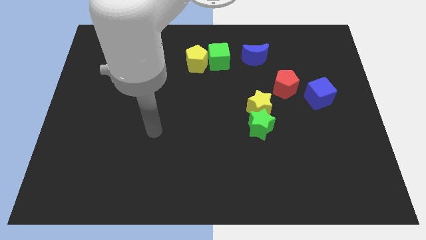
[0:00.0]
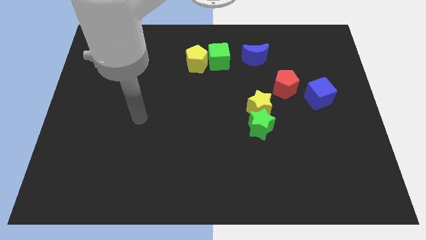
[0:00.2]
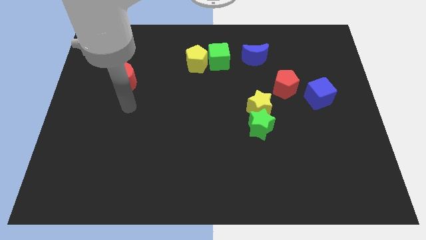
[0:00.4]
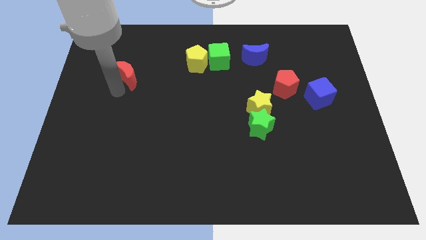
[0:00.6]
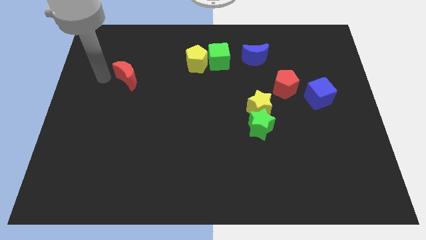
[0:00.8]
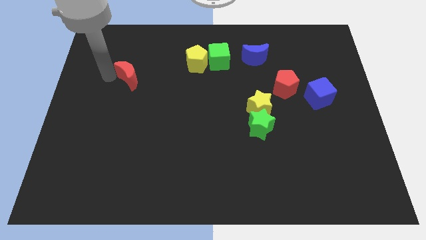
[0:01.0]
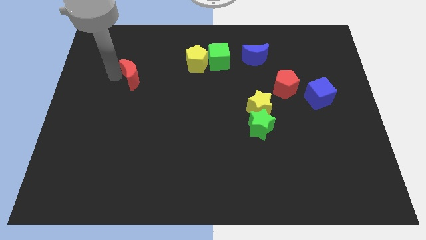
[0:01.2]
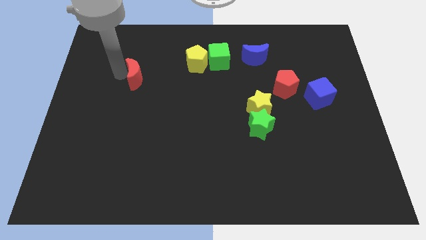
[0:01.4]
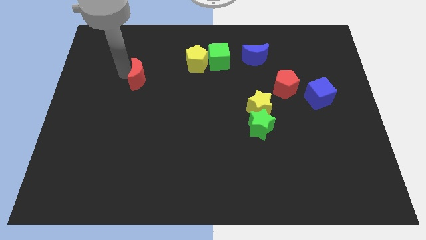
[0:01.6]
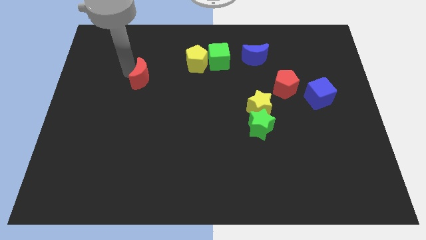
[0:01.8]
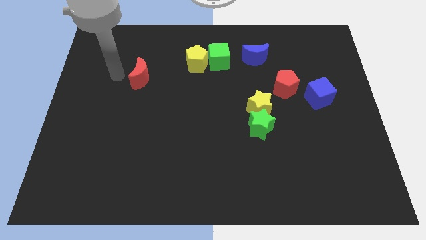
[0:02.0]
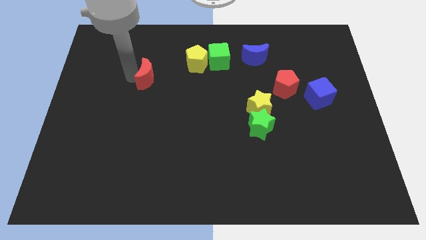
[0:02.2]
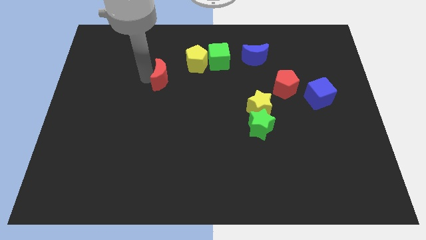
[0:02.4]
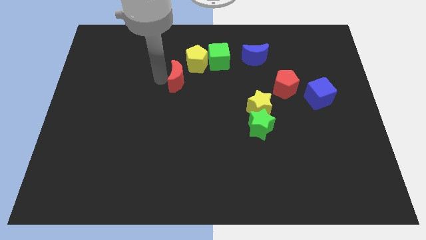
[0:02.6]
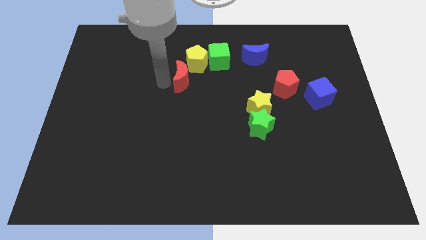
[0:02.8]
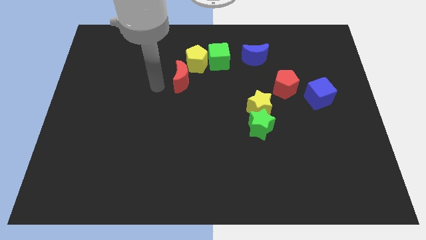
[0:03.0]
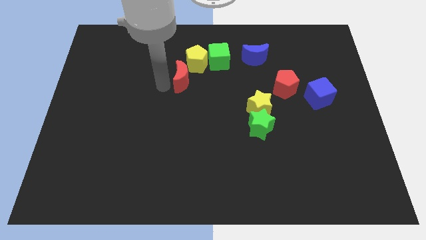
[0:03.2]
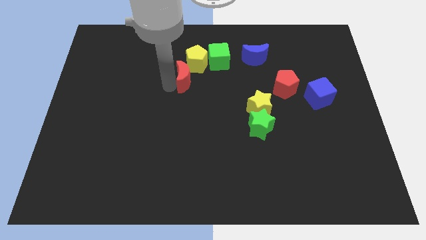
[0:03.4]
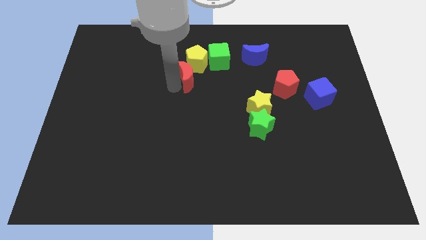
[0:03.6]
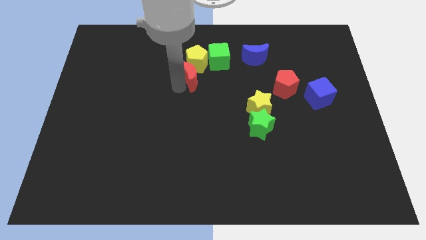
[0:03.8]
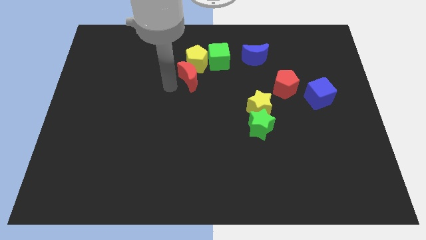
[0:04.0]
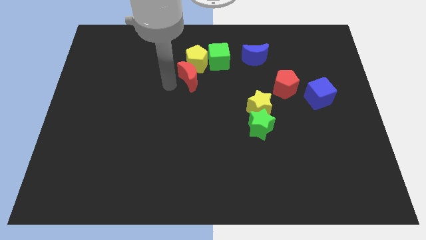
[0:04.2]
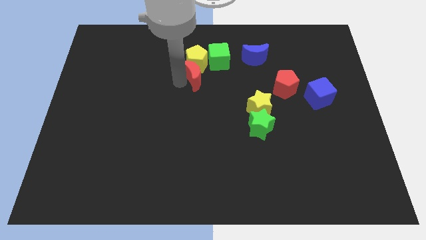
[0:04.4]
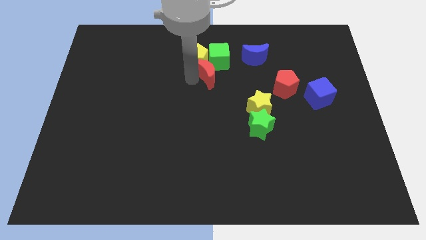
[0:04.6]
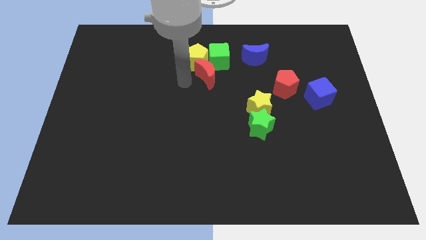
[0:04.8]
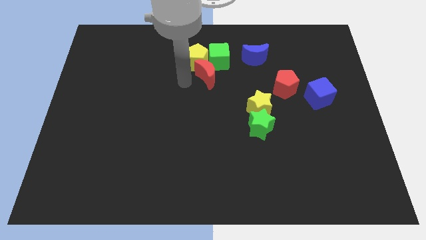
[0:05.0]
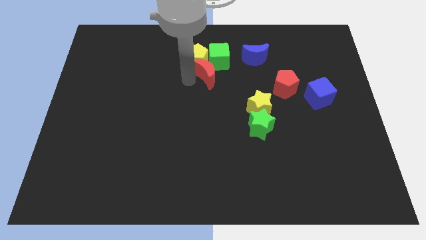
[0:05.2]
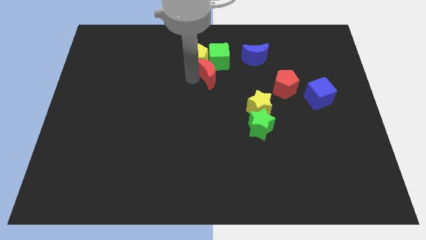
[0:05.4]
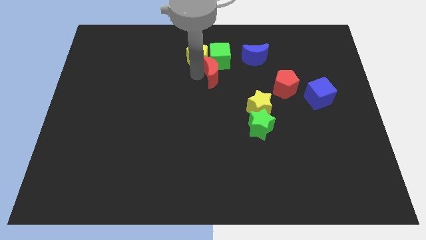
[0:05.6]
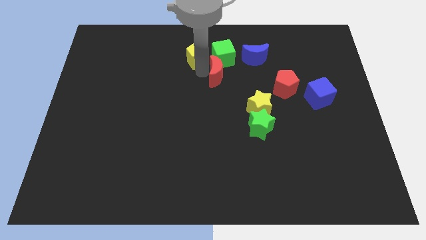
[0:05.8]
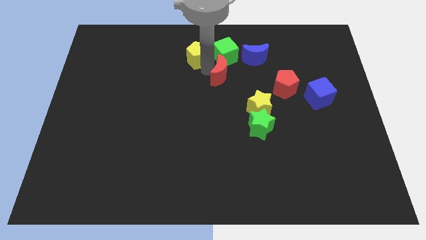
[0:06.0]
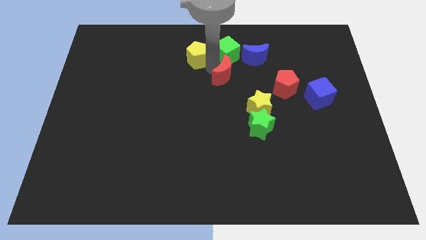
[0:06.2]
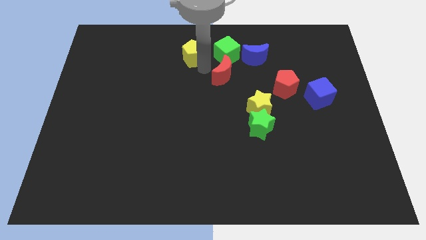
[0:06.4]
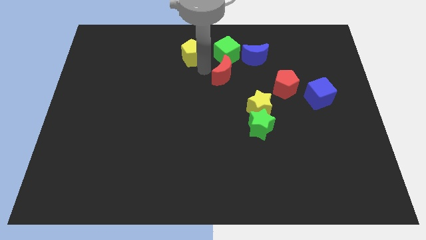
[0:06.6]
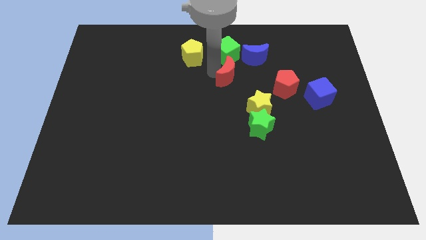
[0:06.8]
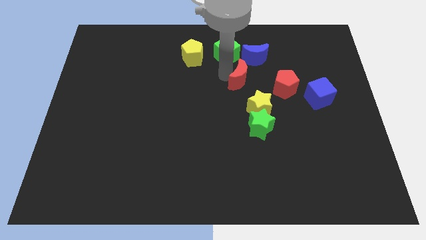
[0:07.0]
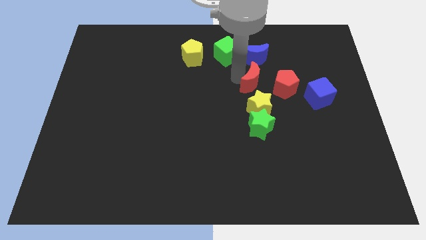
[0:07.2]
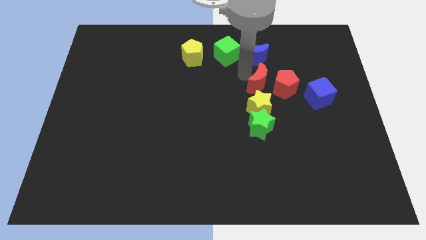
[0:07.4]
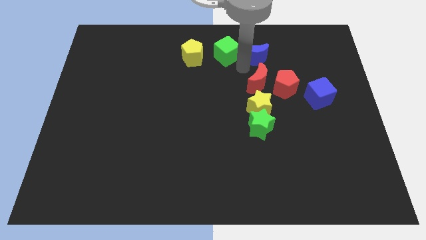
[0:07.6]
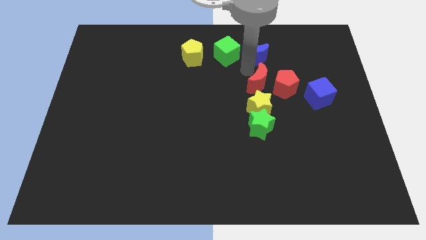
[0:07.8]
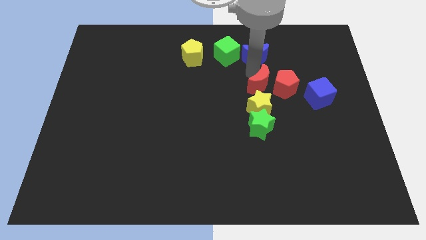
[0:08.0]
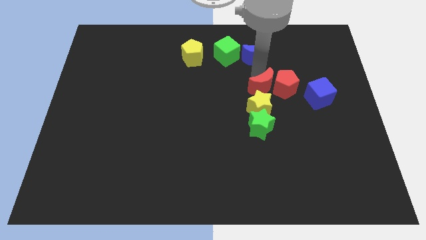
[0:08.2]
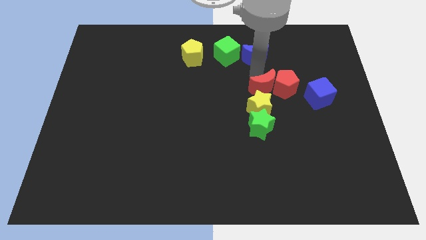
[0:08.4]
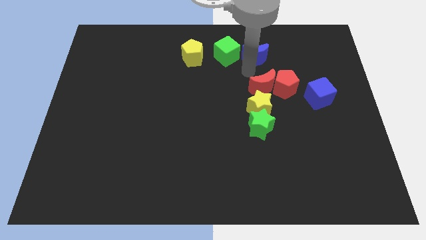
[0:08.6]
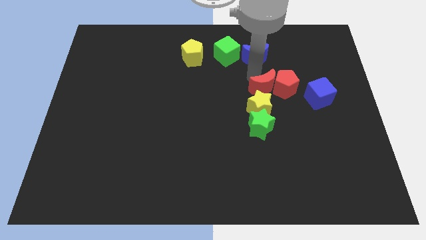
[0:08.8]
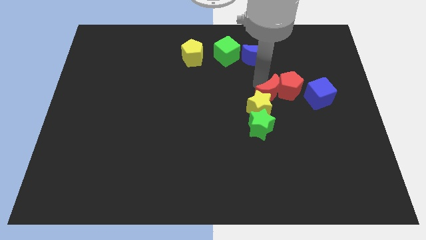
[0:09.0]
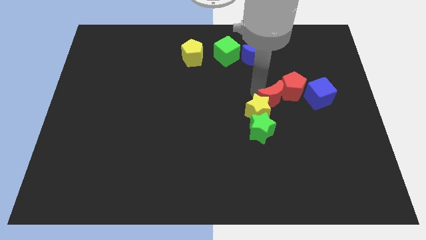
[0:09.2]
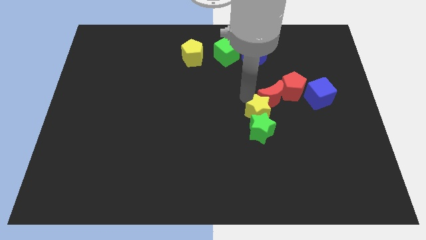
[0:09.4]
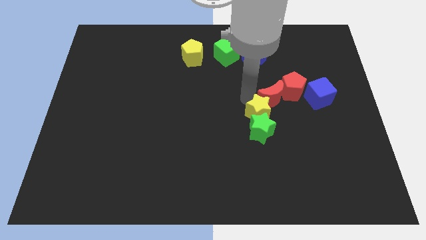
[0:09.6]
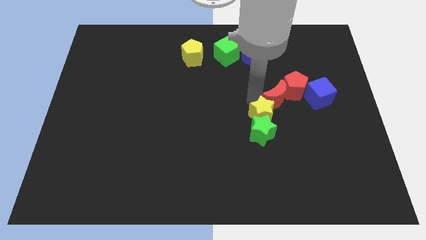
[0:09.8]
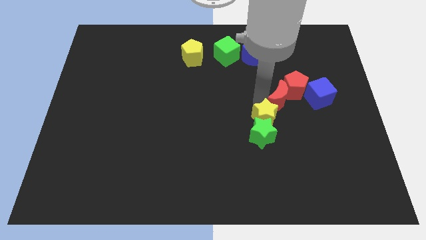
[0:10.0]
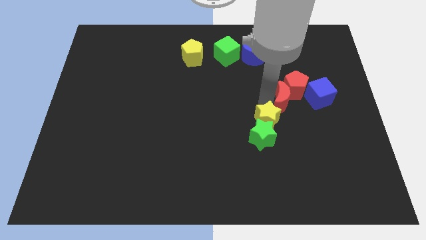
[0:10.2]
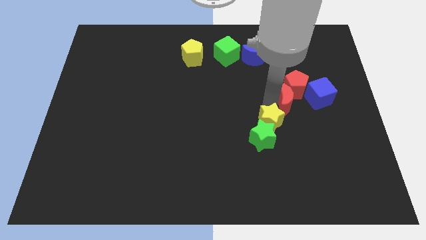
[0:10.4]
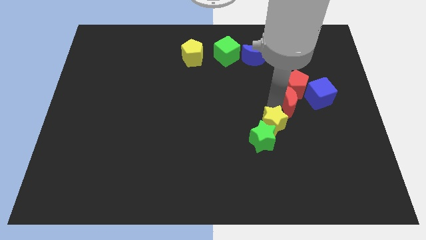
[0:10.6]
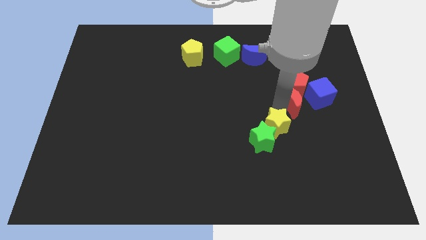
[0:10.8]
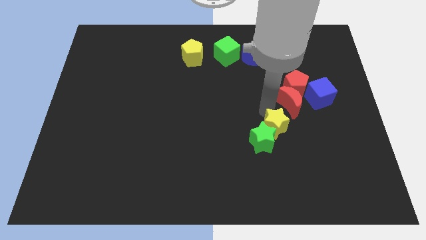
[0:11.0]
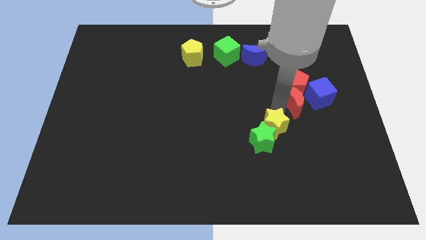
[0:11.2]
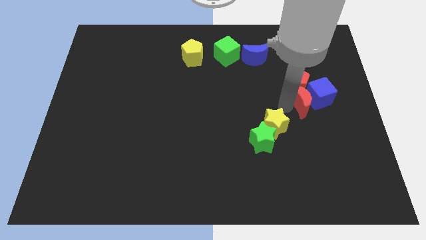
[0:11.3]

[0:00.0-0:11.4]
put the red moon next to the blue cube

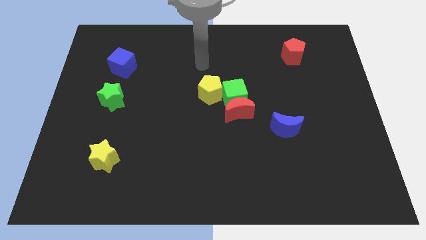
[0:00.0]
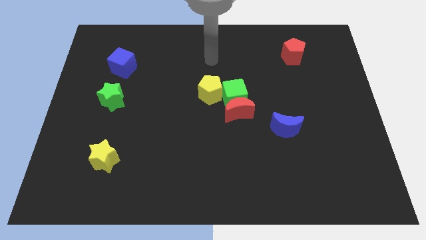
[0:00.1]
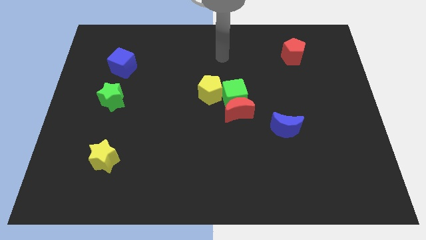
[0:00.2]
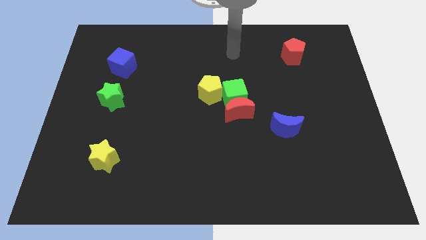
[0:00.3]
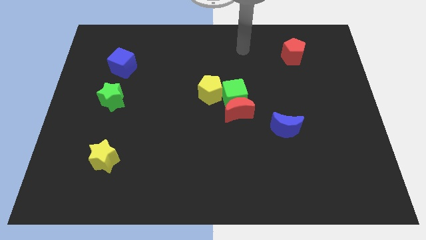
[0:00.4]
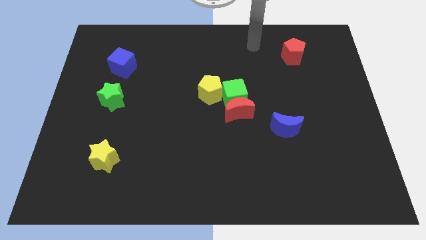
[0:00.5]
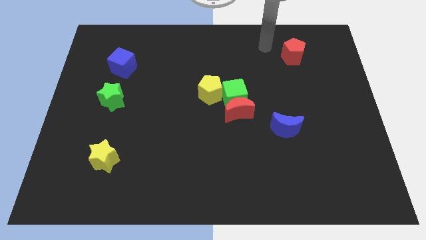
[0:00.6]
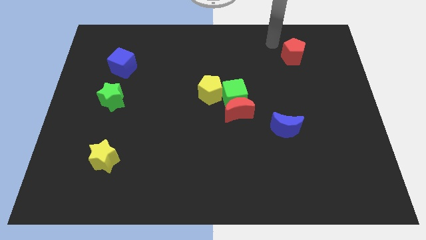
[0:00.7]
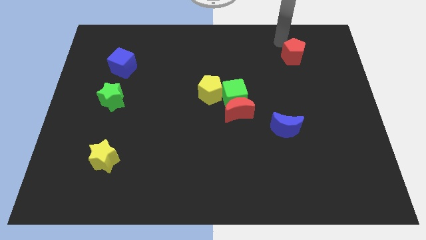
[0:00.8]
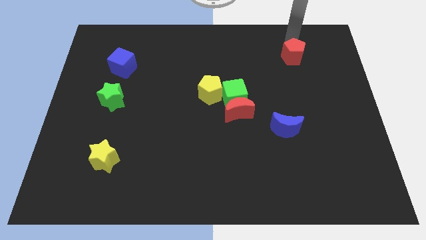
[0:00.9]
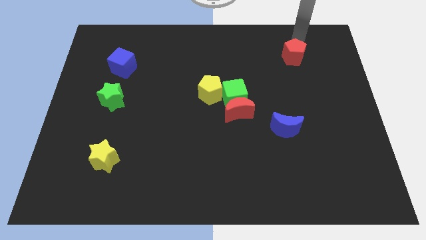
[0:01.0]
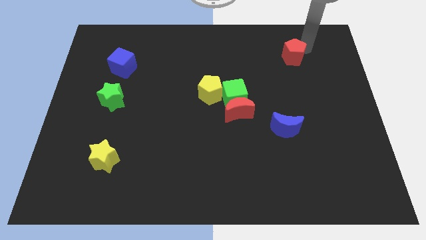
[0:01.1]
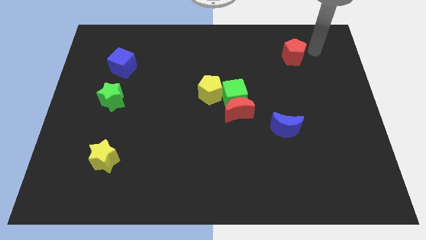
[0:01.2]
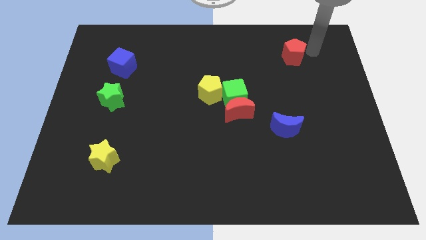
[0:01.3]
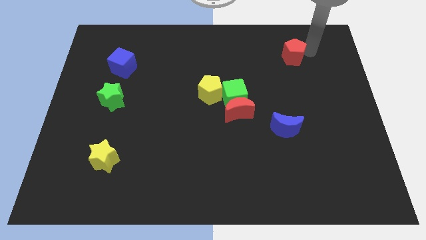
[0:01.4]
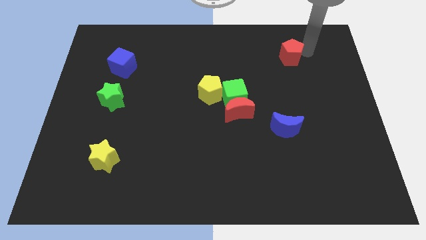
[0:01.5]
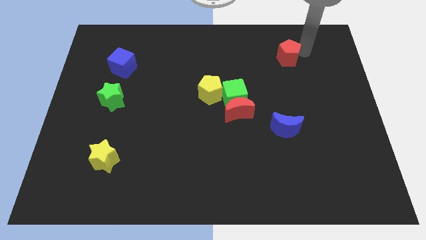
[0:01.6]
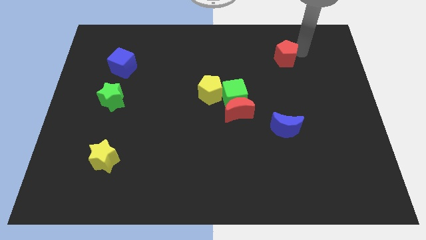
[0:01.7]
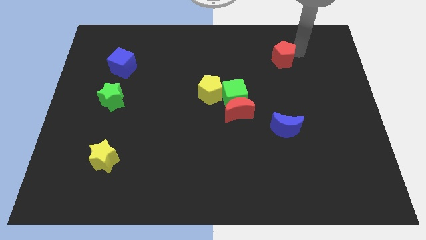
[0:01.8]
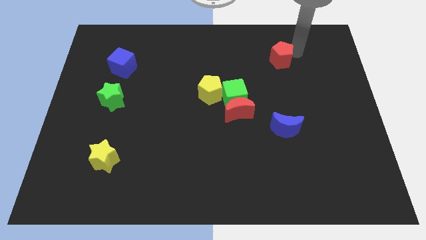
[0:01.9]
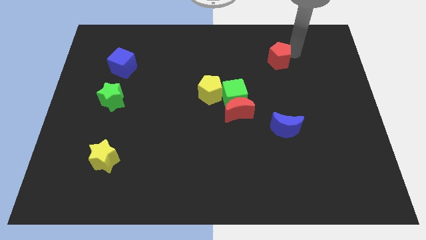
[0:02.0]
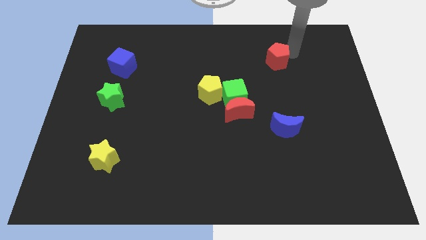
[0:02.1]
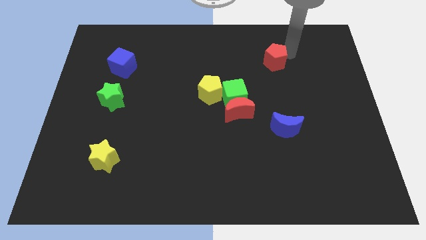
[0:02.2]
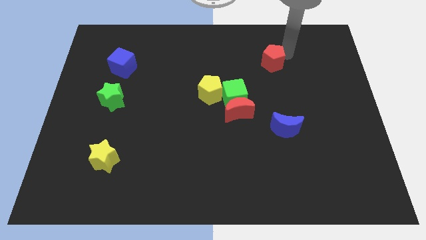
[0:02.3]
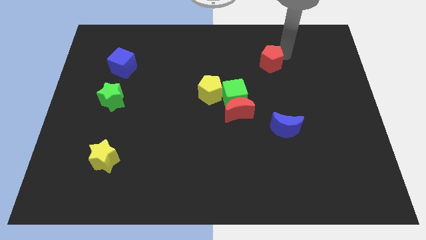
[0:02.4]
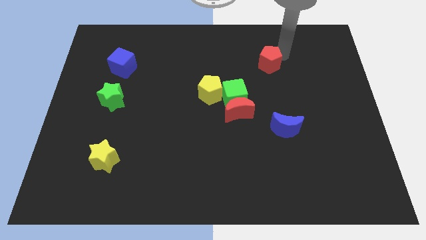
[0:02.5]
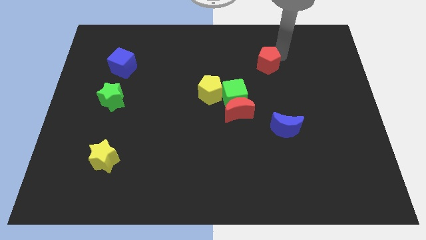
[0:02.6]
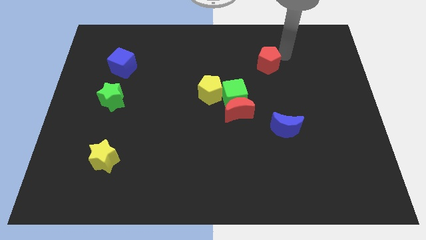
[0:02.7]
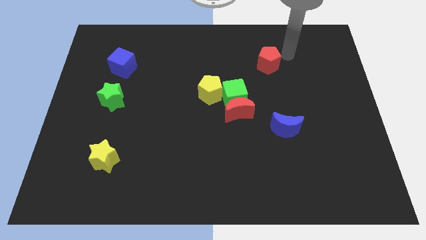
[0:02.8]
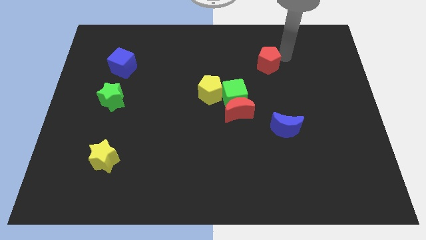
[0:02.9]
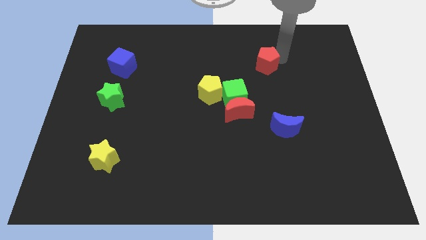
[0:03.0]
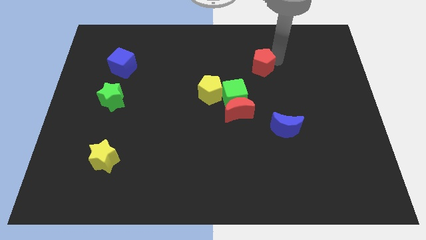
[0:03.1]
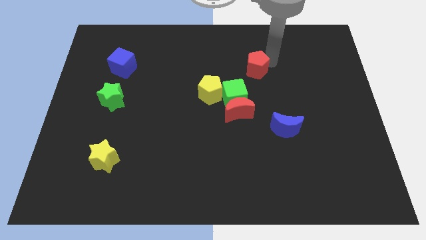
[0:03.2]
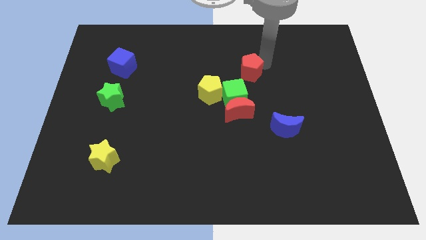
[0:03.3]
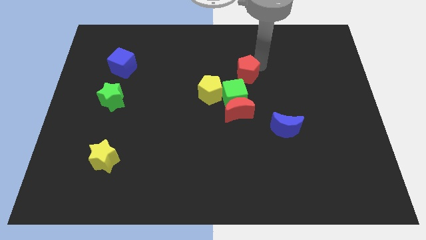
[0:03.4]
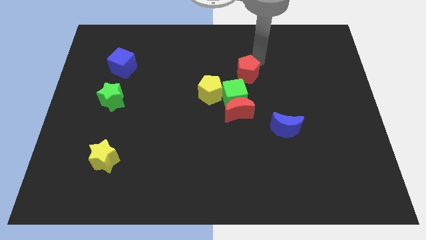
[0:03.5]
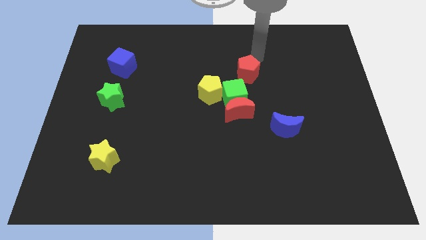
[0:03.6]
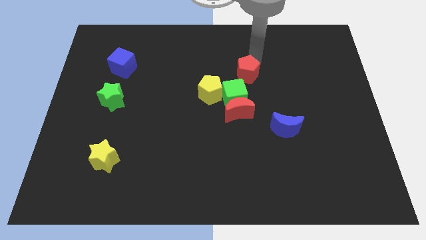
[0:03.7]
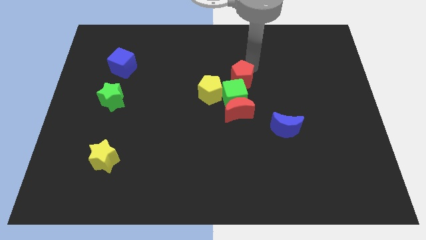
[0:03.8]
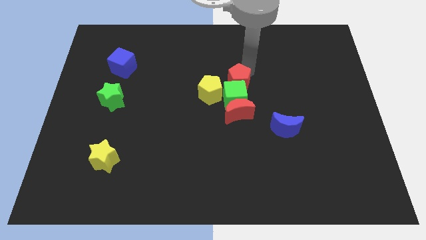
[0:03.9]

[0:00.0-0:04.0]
move the red pentagon next to the green cube
